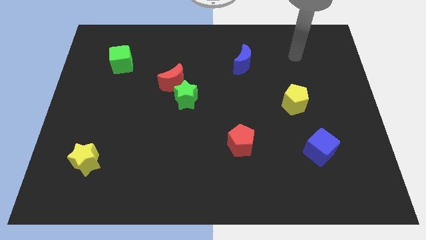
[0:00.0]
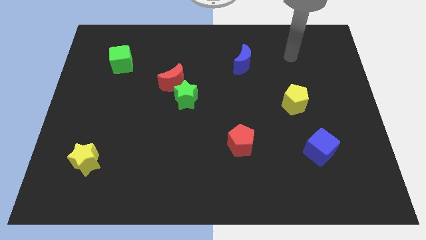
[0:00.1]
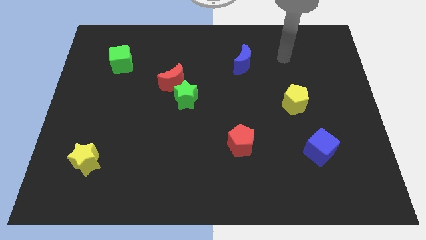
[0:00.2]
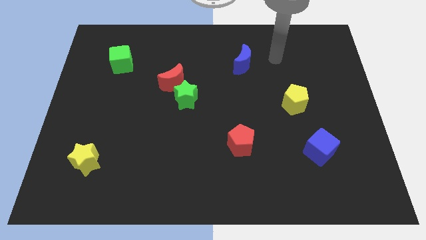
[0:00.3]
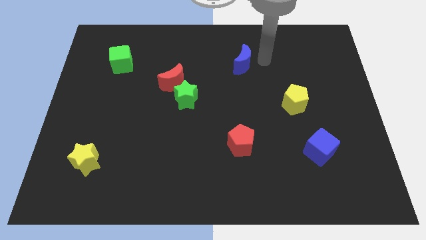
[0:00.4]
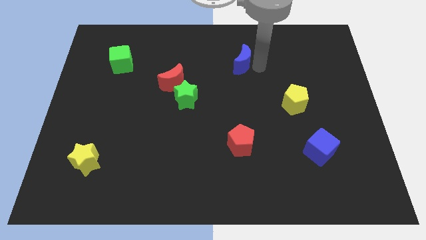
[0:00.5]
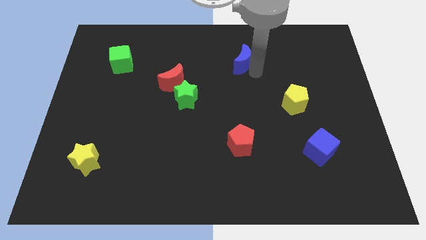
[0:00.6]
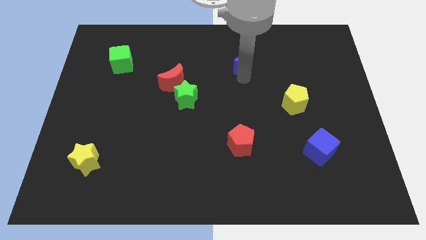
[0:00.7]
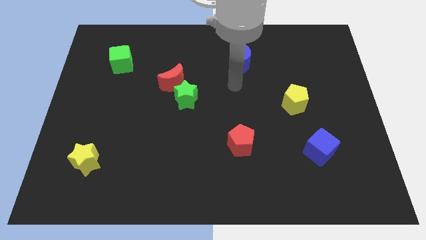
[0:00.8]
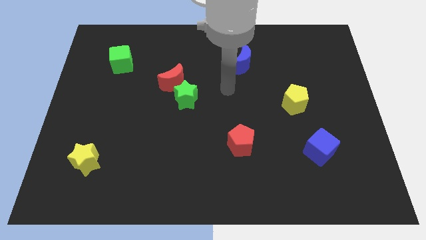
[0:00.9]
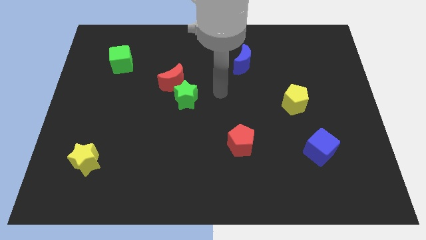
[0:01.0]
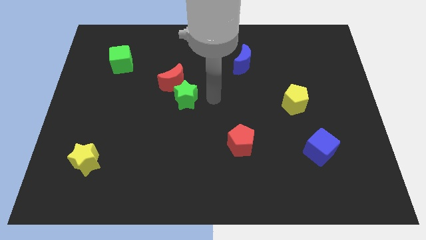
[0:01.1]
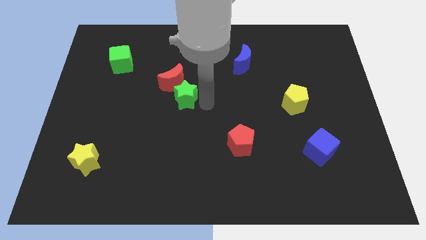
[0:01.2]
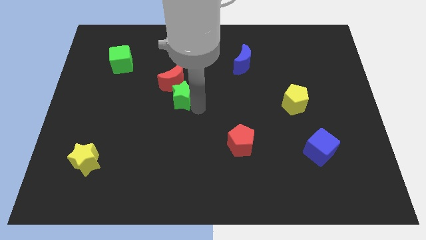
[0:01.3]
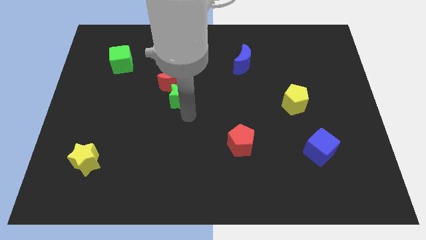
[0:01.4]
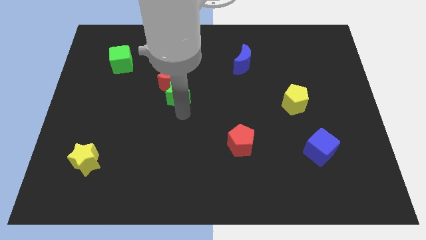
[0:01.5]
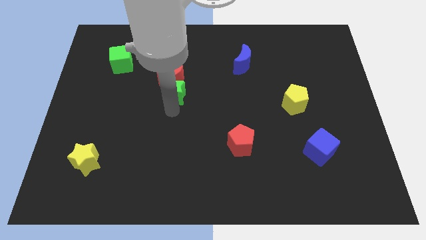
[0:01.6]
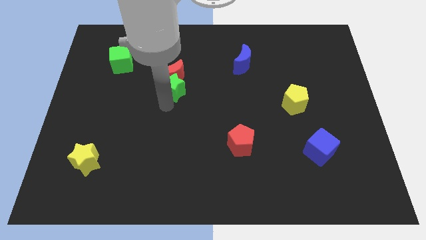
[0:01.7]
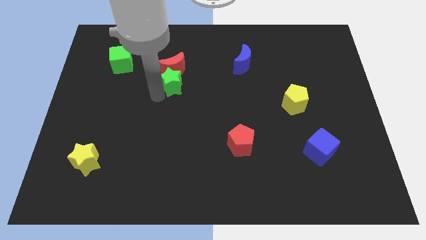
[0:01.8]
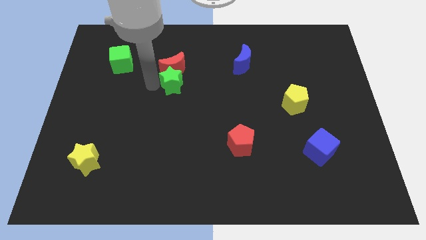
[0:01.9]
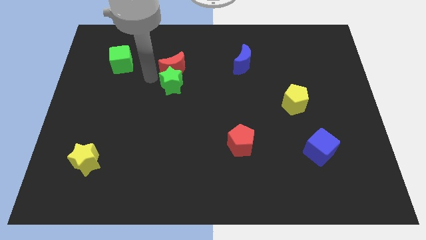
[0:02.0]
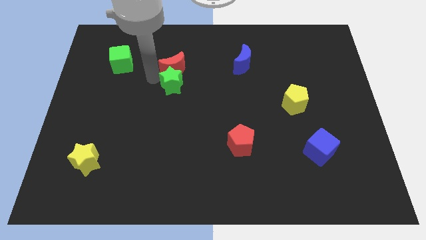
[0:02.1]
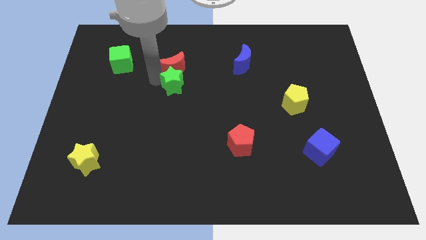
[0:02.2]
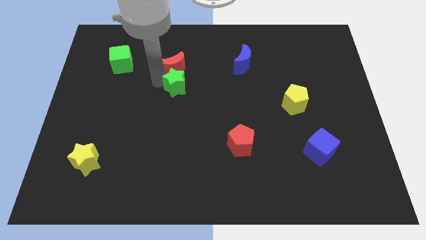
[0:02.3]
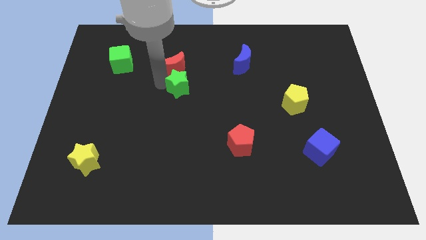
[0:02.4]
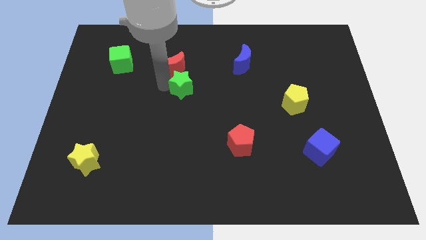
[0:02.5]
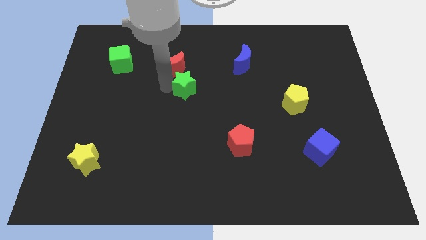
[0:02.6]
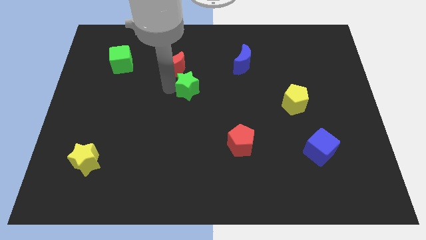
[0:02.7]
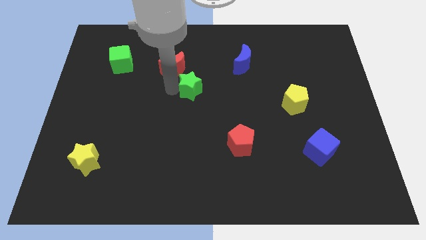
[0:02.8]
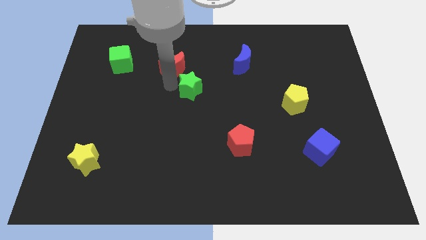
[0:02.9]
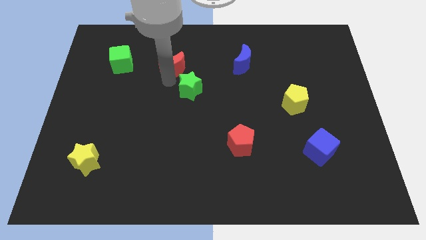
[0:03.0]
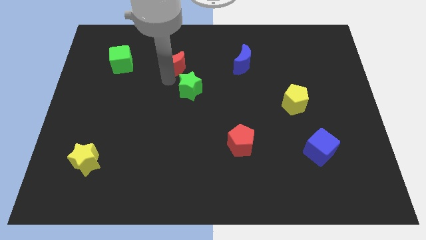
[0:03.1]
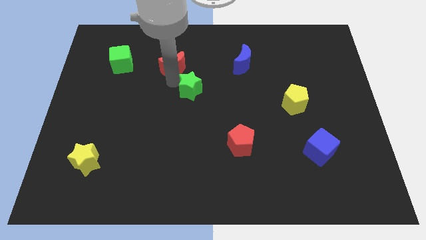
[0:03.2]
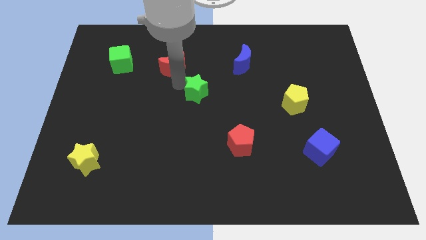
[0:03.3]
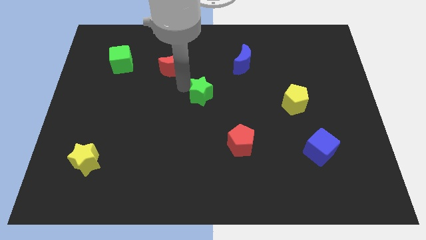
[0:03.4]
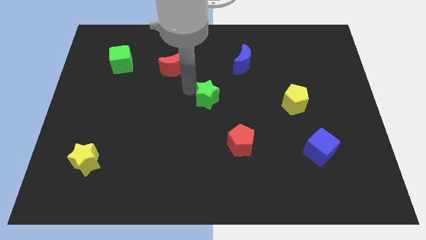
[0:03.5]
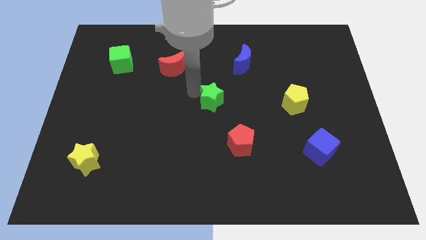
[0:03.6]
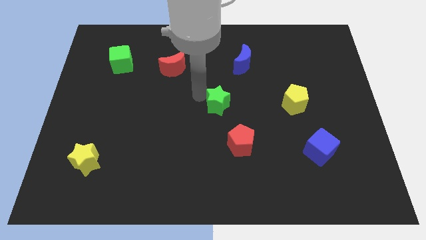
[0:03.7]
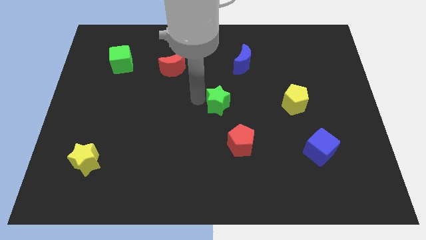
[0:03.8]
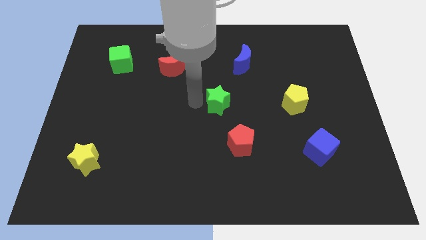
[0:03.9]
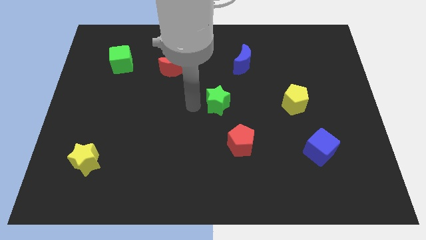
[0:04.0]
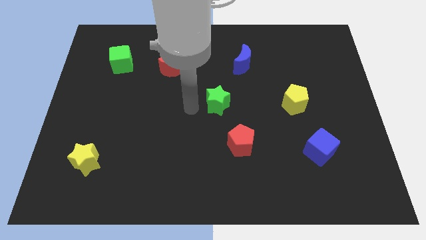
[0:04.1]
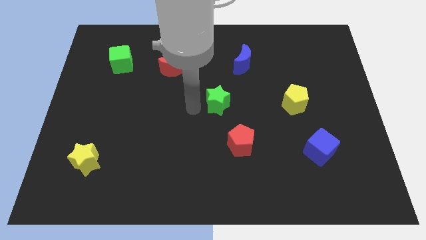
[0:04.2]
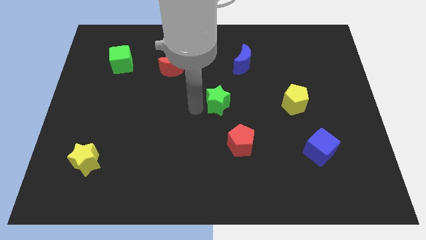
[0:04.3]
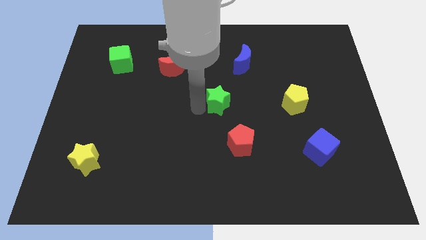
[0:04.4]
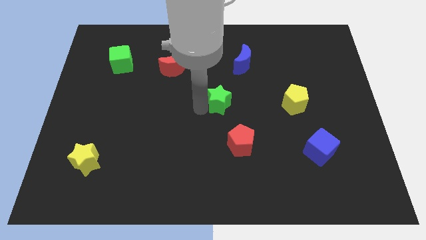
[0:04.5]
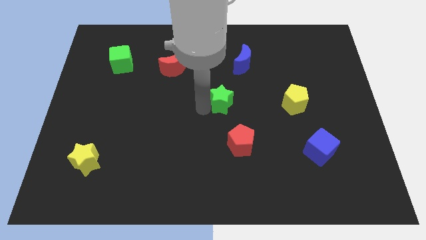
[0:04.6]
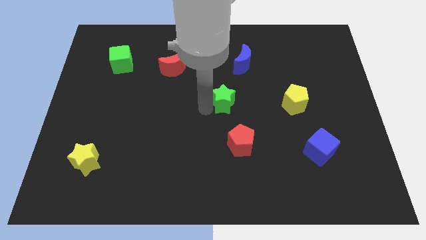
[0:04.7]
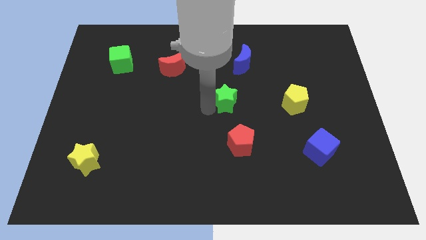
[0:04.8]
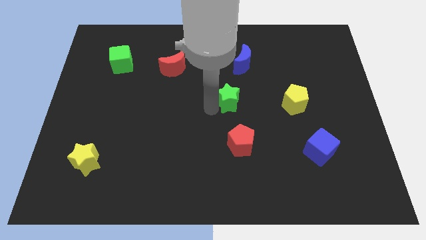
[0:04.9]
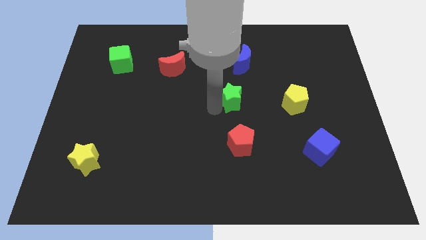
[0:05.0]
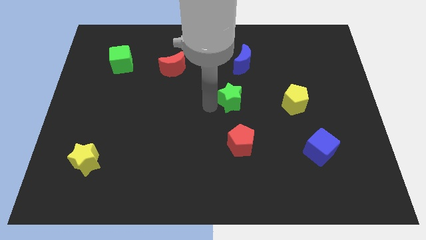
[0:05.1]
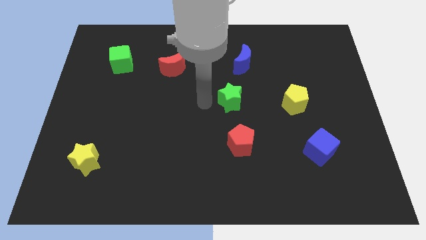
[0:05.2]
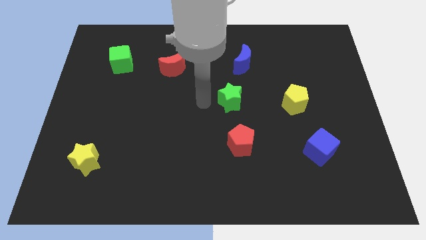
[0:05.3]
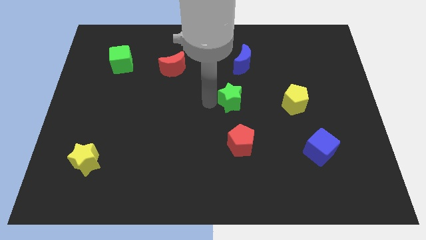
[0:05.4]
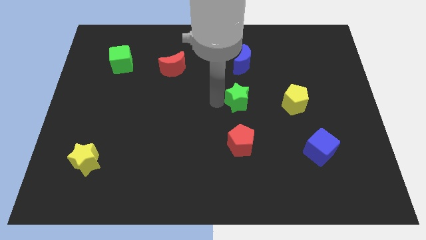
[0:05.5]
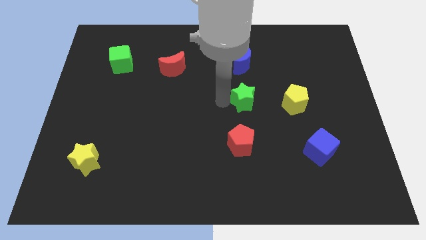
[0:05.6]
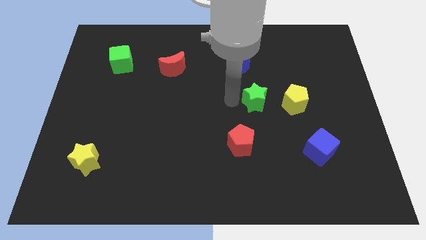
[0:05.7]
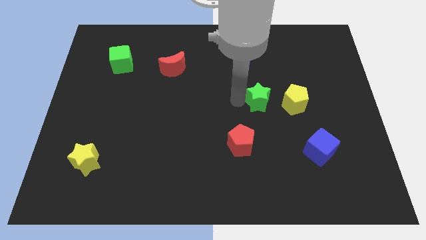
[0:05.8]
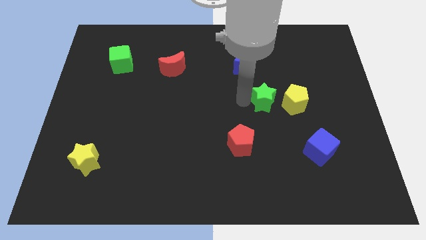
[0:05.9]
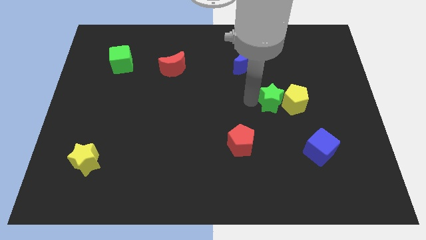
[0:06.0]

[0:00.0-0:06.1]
push the green star close to the yellow pentagon
